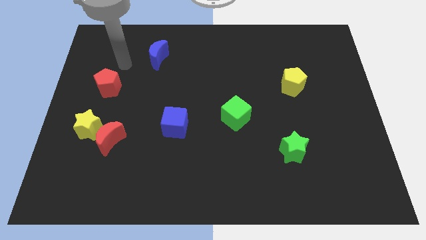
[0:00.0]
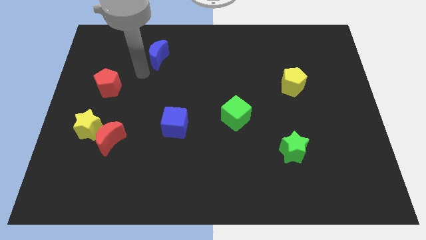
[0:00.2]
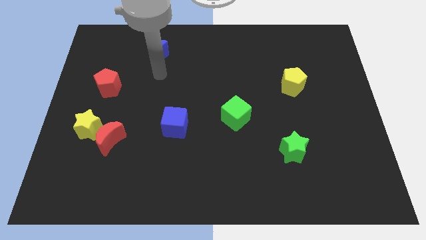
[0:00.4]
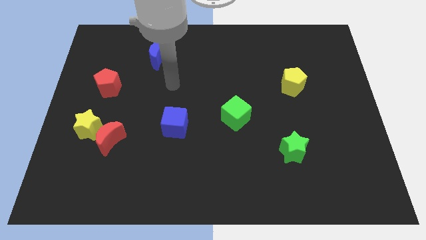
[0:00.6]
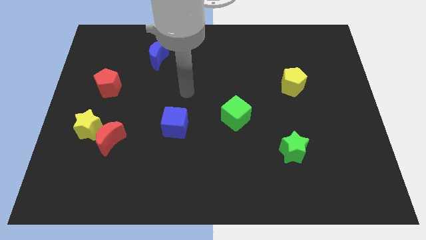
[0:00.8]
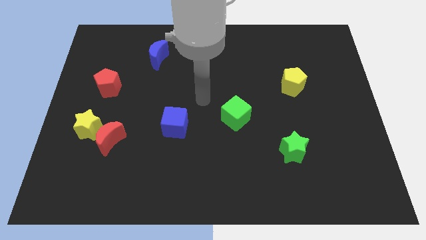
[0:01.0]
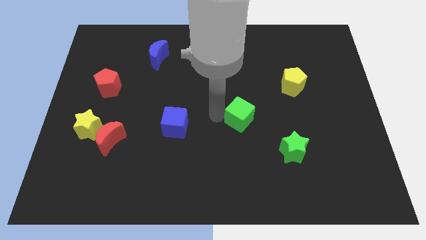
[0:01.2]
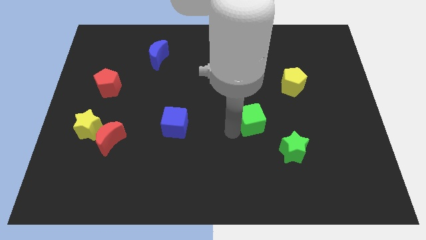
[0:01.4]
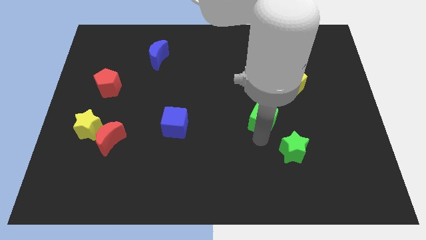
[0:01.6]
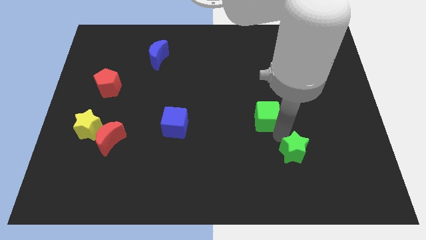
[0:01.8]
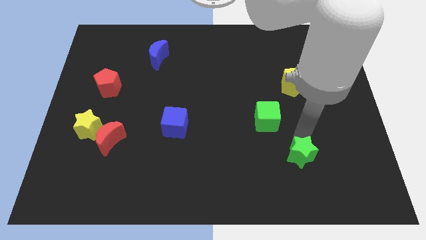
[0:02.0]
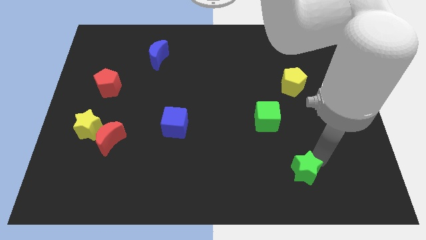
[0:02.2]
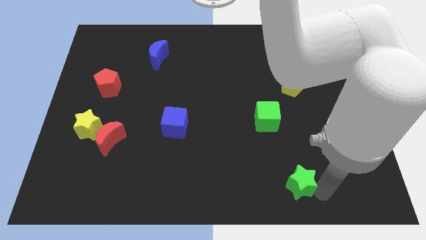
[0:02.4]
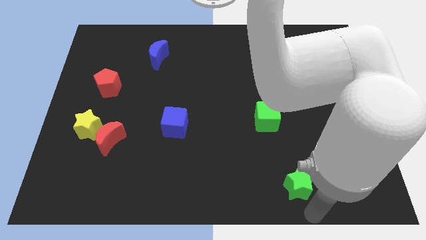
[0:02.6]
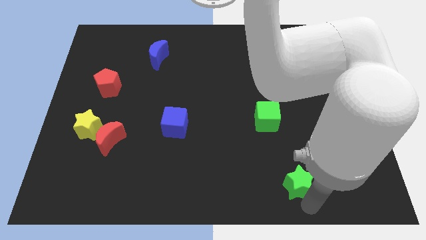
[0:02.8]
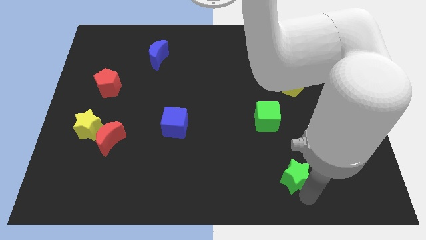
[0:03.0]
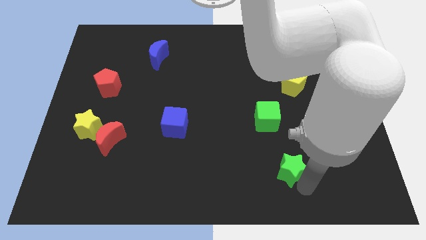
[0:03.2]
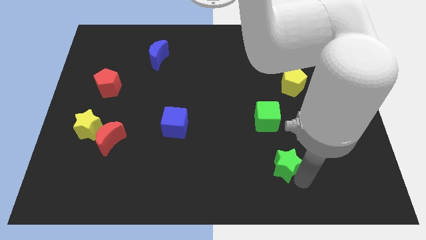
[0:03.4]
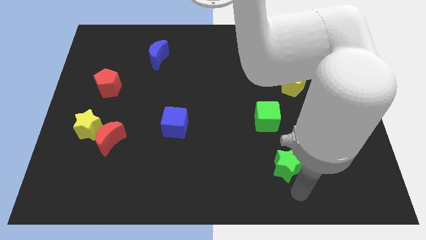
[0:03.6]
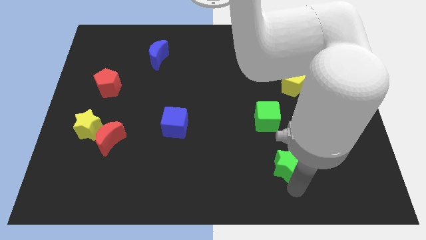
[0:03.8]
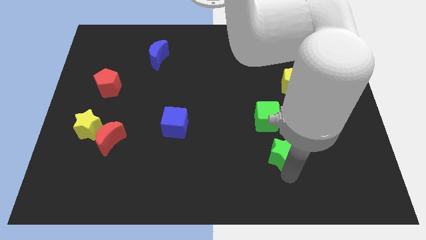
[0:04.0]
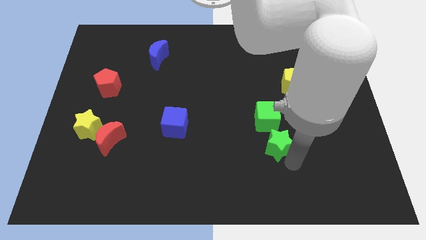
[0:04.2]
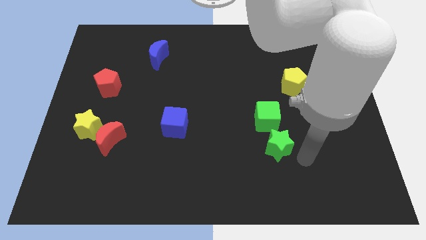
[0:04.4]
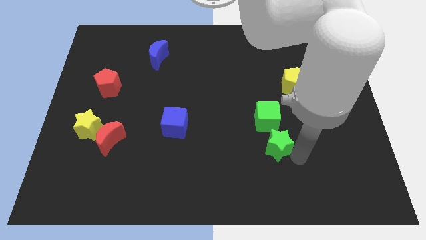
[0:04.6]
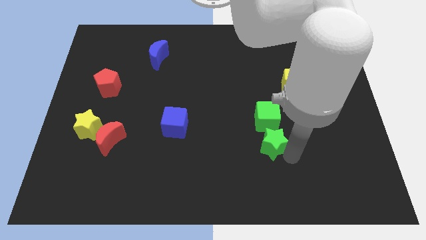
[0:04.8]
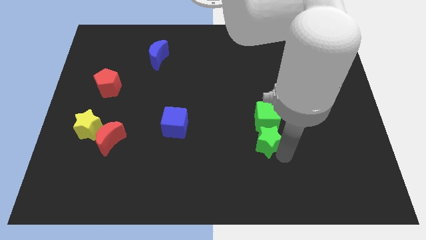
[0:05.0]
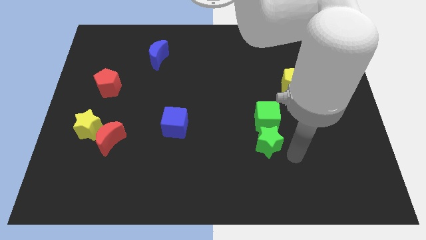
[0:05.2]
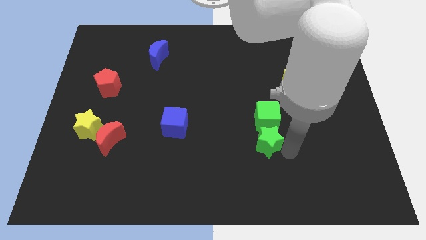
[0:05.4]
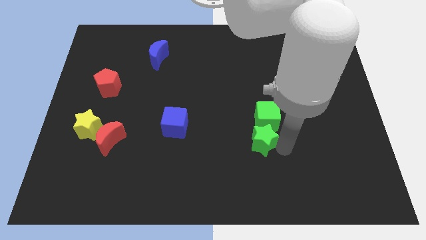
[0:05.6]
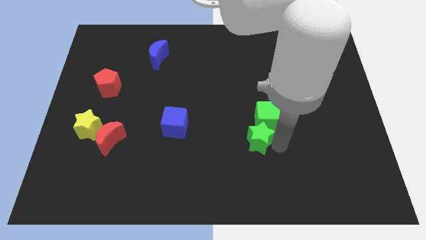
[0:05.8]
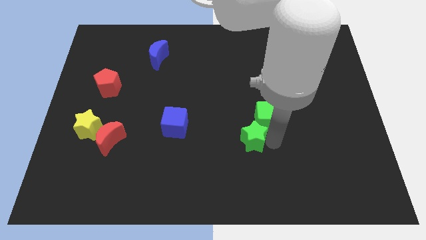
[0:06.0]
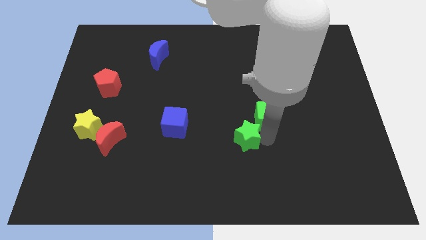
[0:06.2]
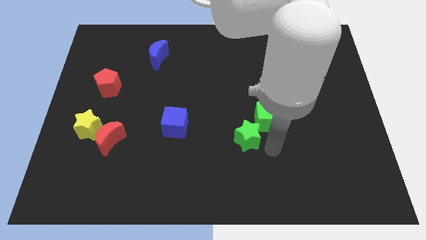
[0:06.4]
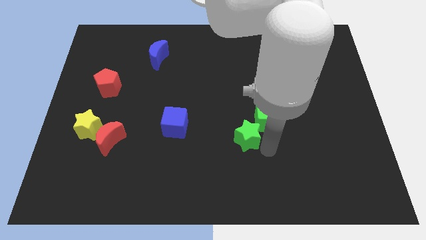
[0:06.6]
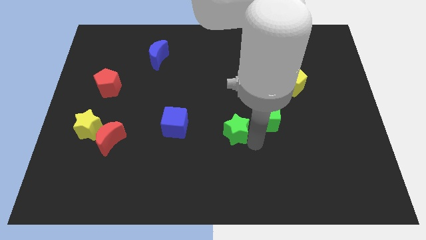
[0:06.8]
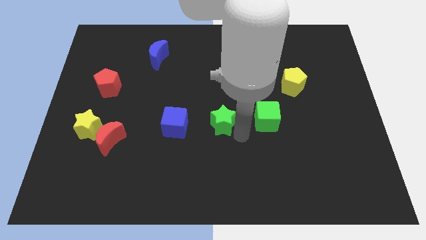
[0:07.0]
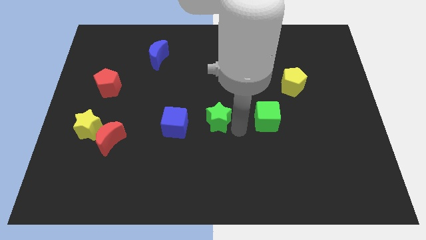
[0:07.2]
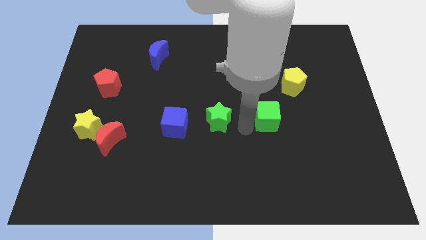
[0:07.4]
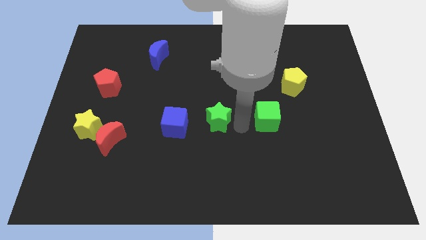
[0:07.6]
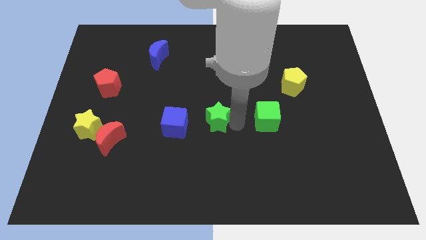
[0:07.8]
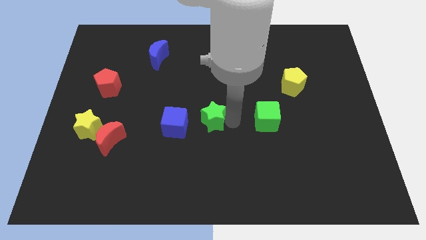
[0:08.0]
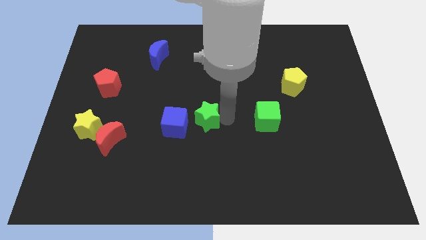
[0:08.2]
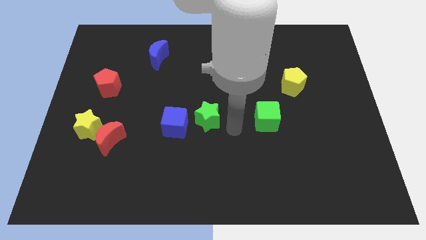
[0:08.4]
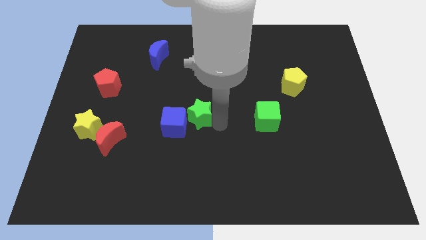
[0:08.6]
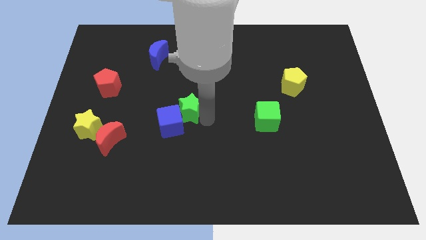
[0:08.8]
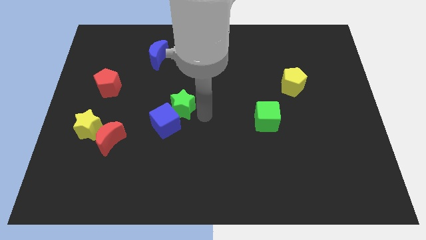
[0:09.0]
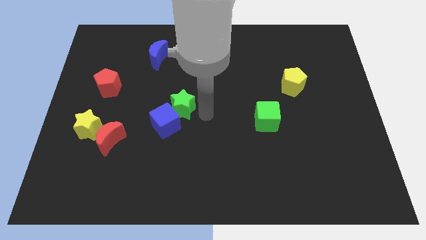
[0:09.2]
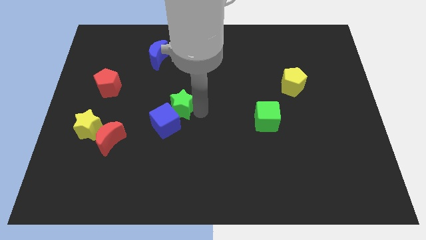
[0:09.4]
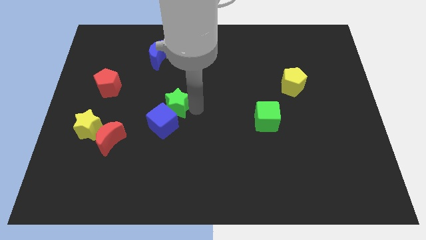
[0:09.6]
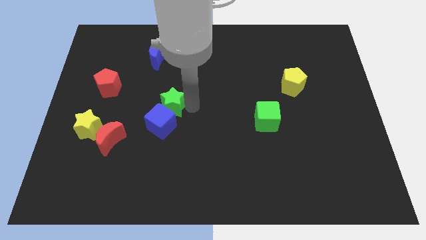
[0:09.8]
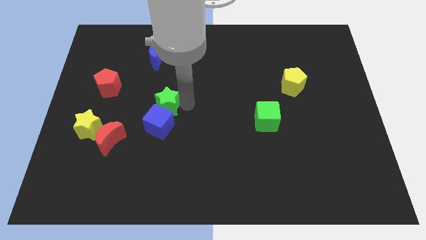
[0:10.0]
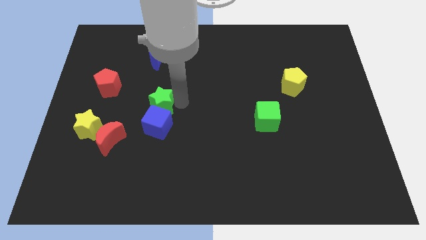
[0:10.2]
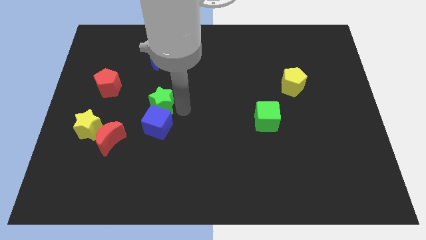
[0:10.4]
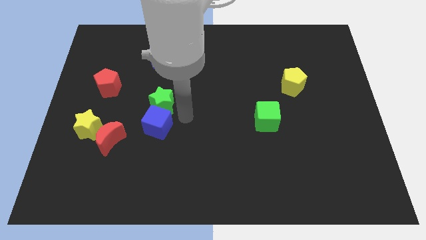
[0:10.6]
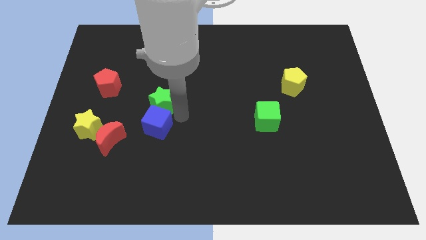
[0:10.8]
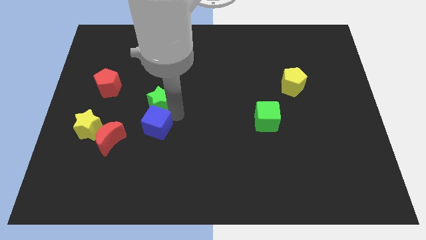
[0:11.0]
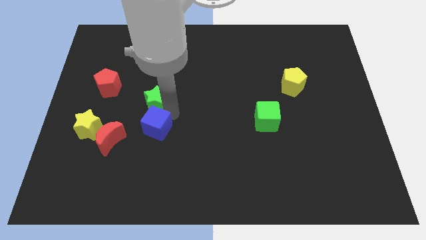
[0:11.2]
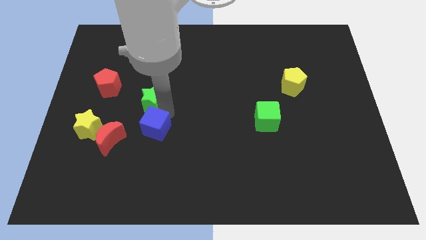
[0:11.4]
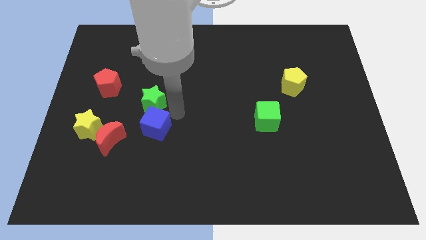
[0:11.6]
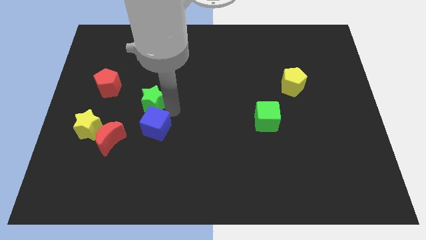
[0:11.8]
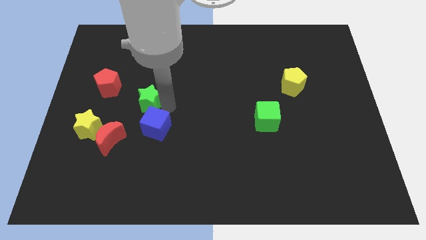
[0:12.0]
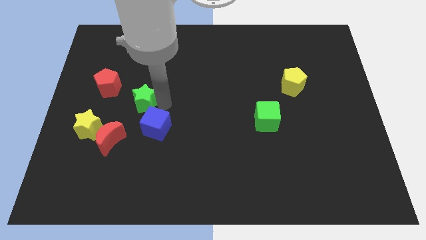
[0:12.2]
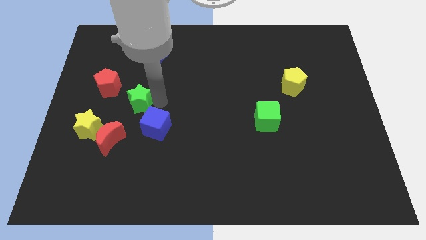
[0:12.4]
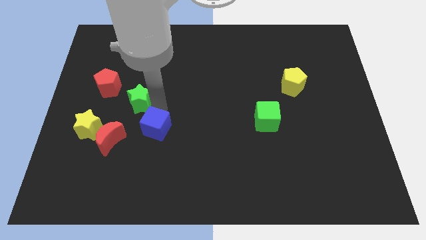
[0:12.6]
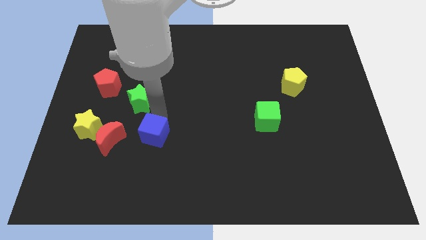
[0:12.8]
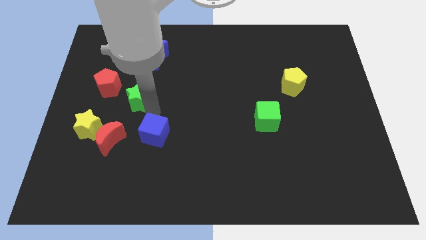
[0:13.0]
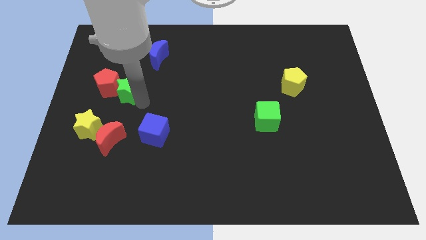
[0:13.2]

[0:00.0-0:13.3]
push the green star towards the red pentagon
